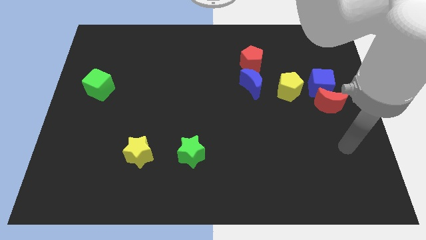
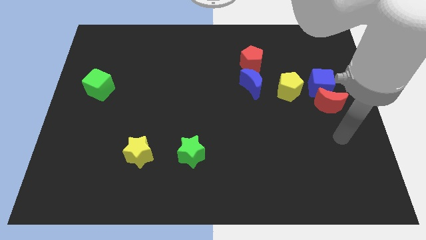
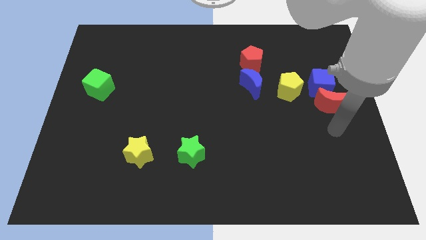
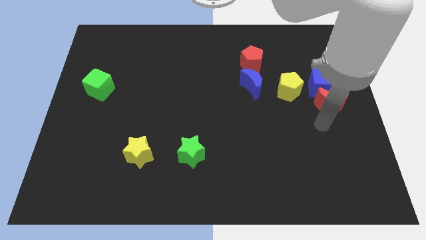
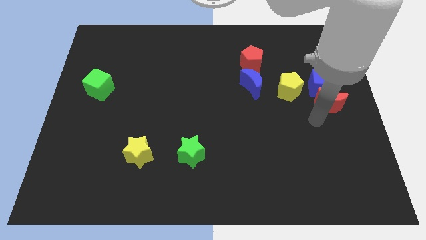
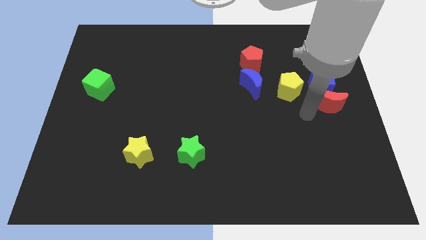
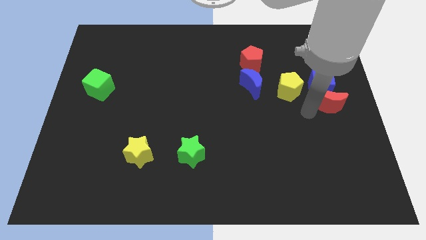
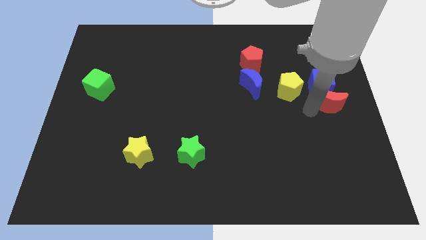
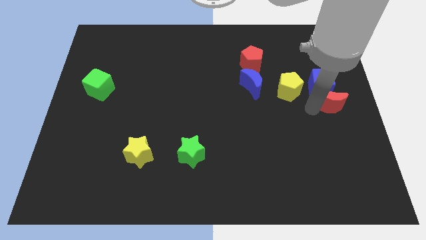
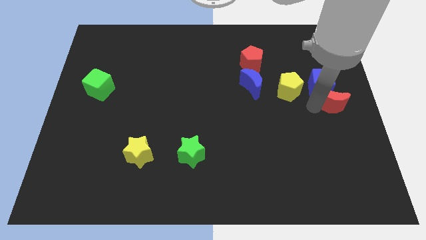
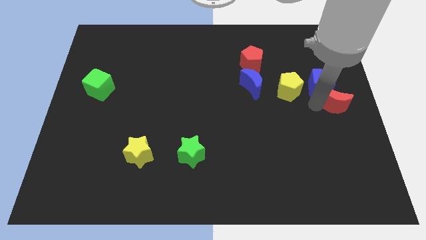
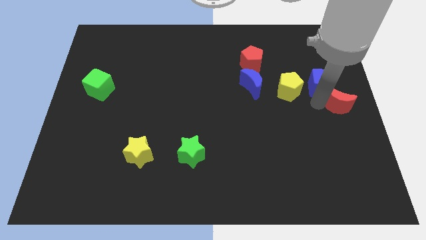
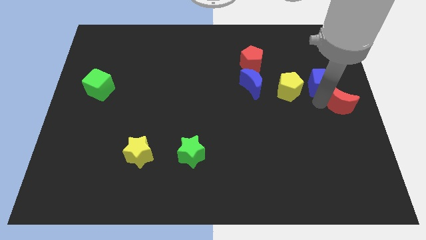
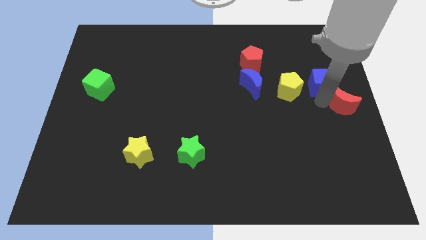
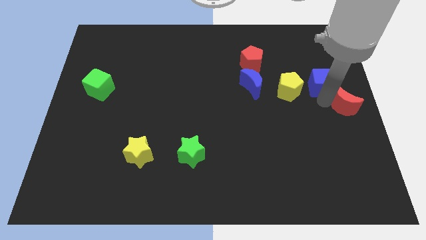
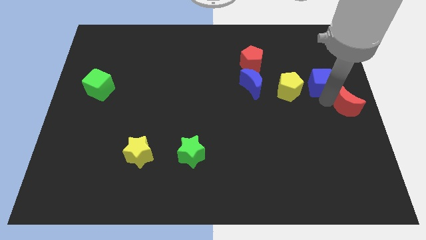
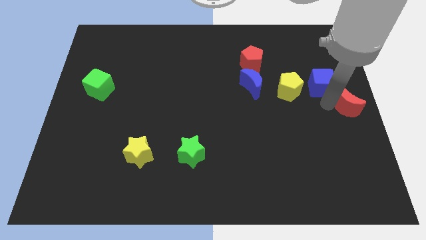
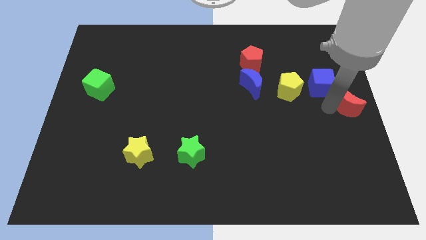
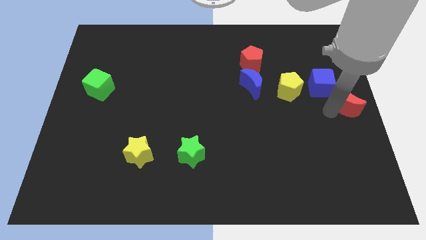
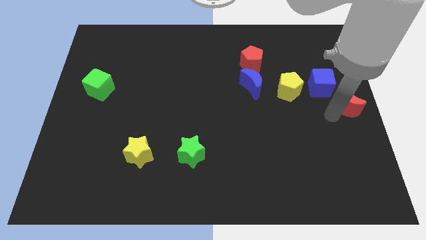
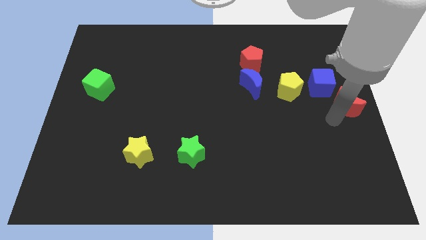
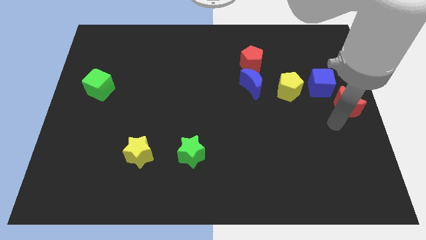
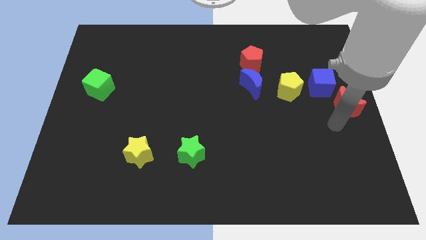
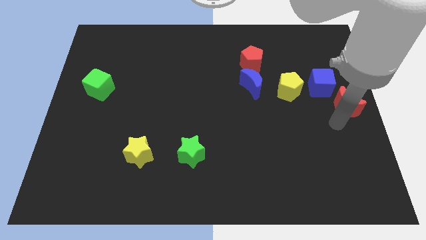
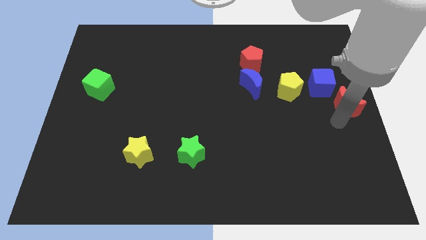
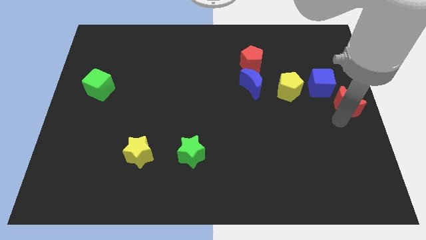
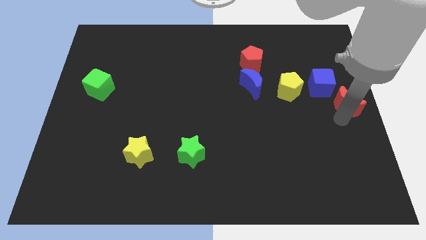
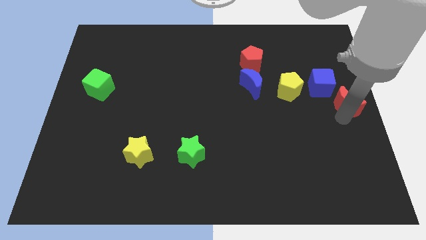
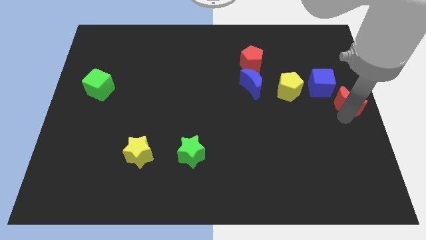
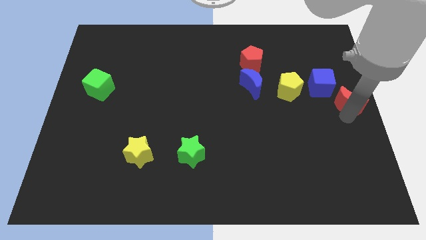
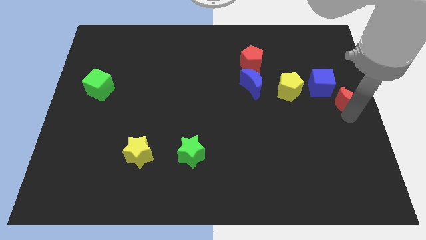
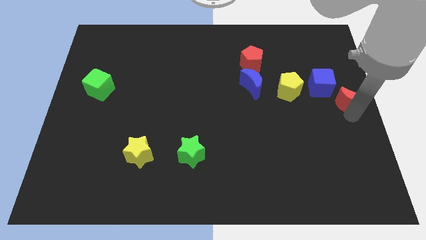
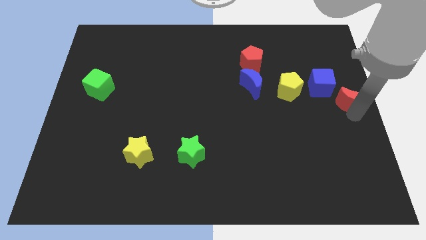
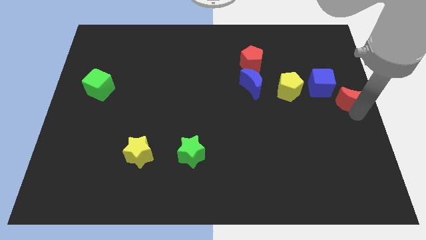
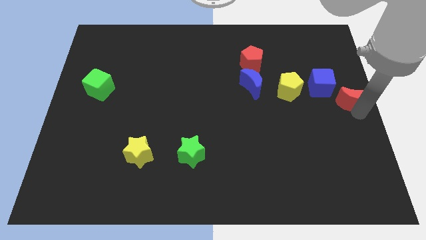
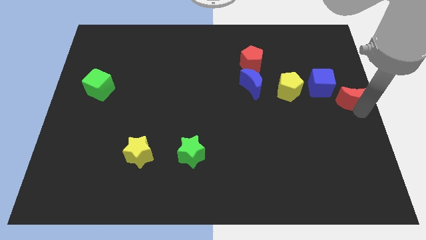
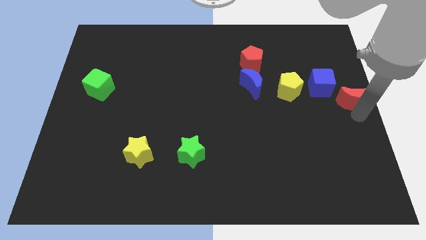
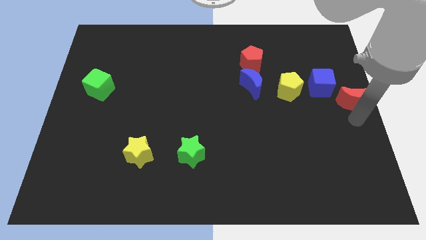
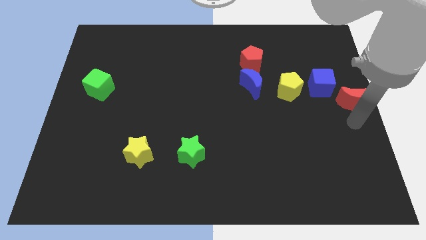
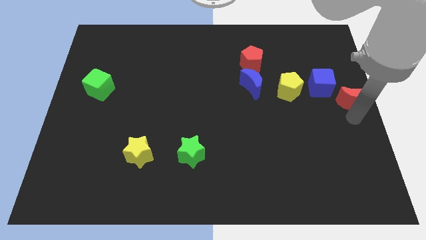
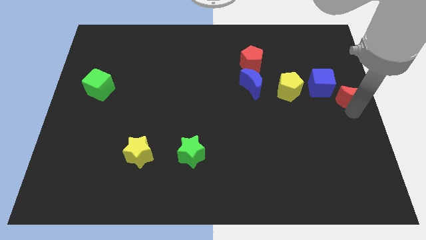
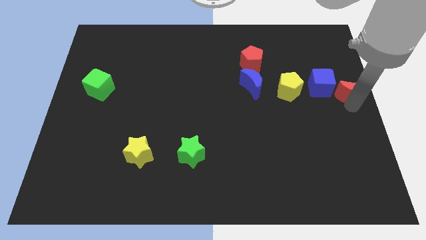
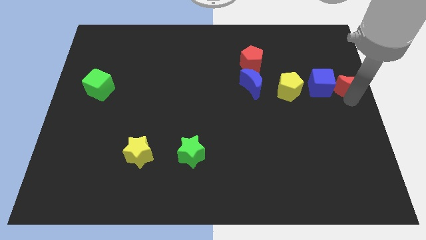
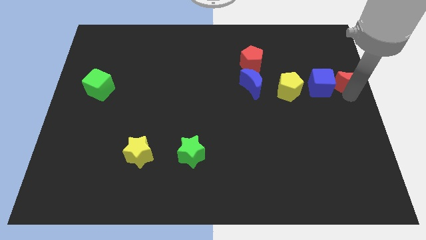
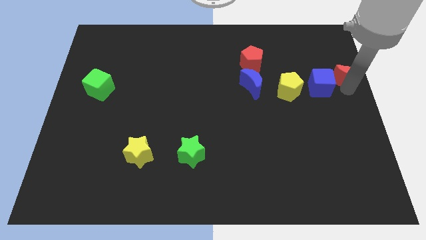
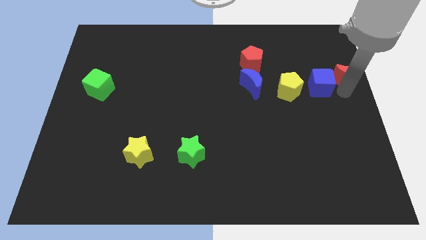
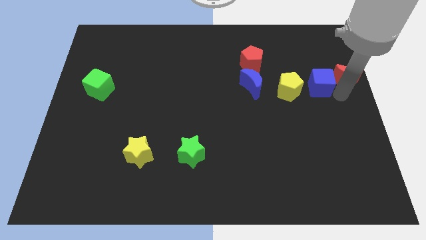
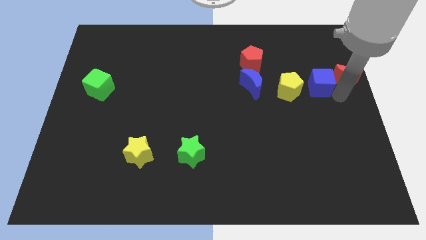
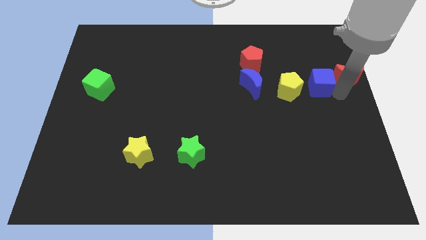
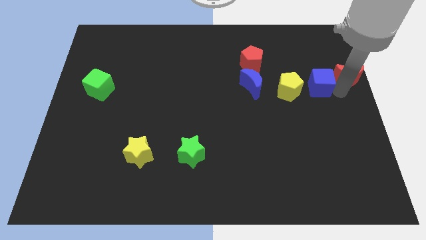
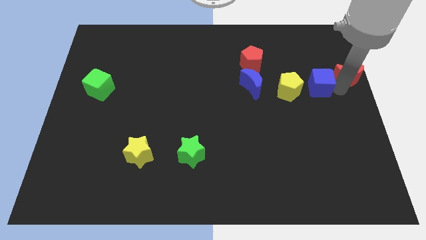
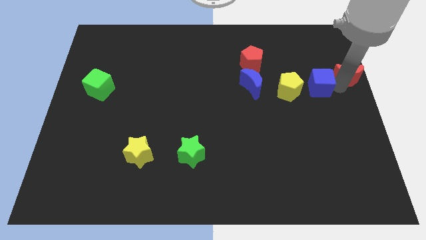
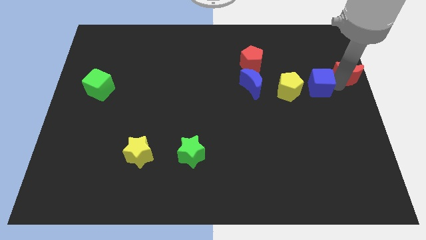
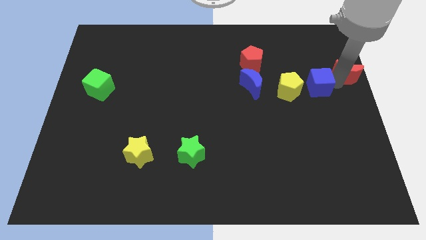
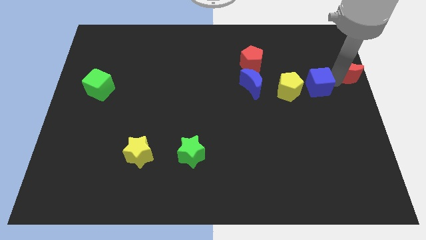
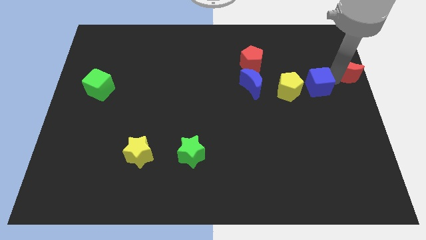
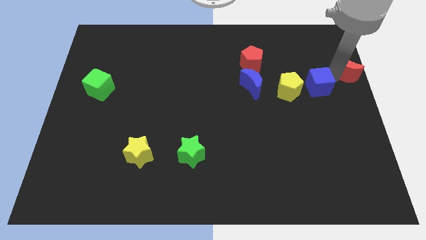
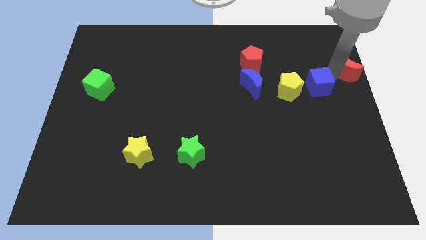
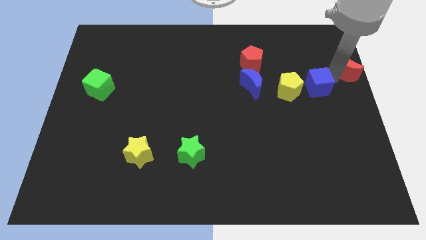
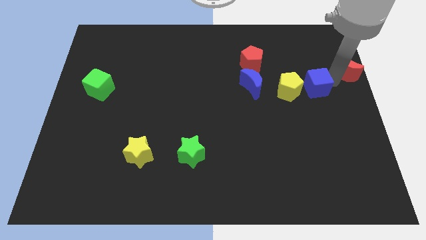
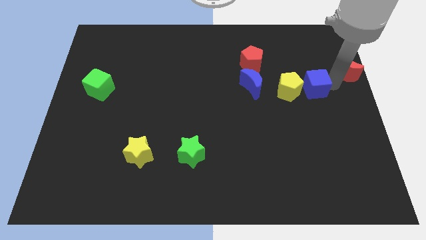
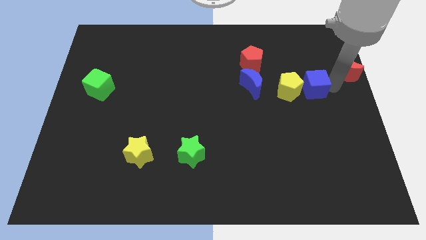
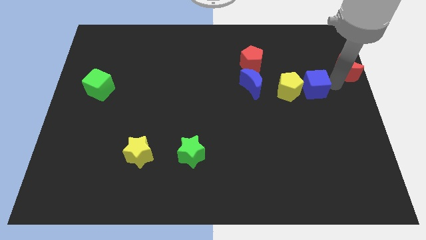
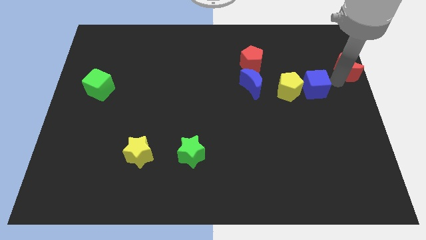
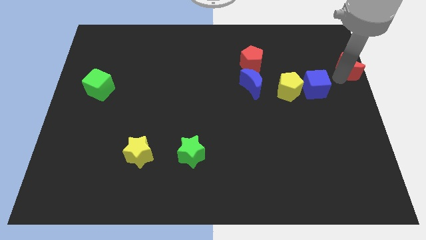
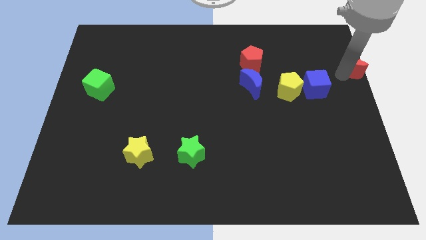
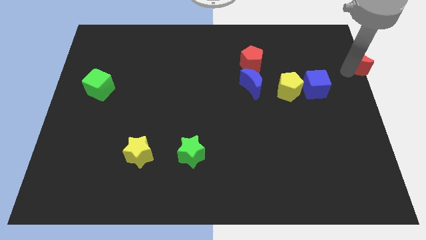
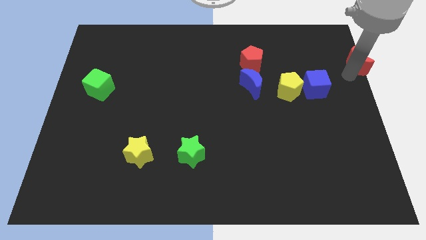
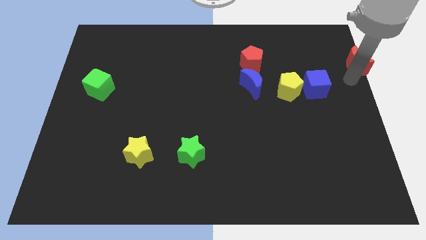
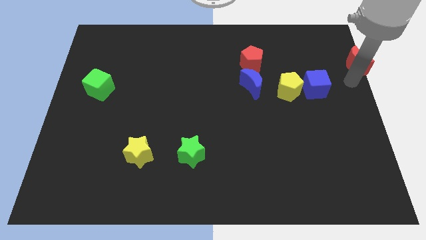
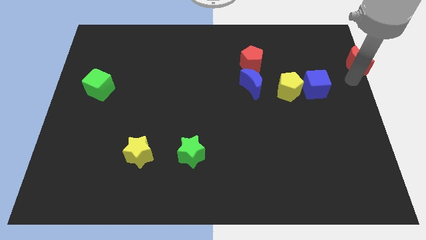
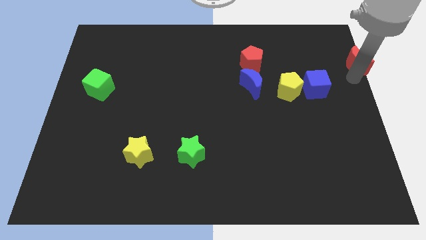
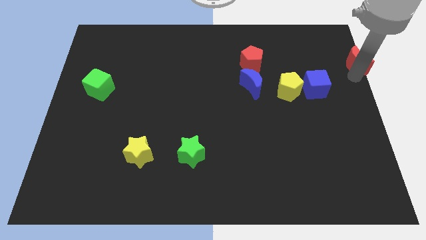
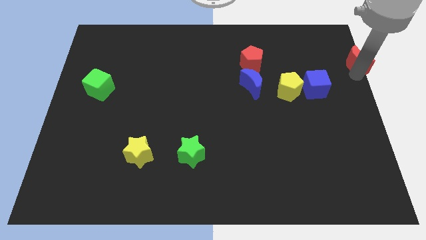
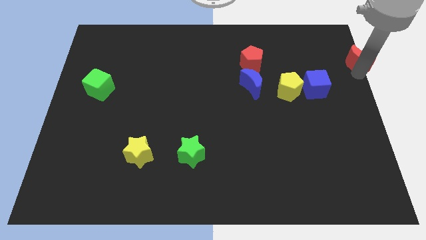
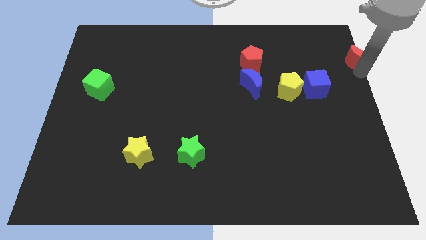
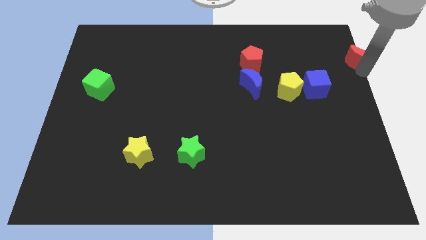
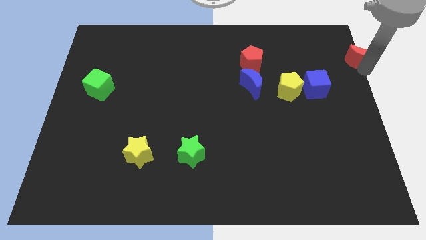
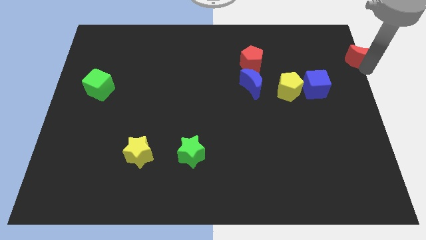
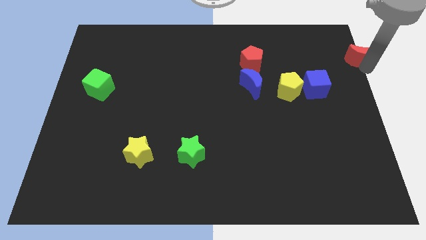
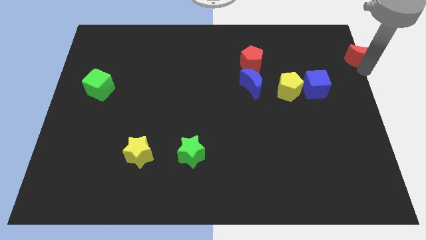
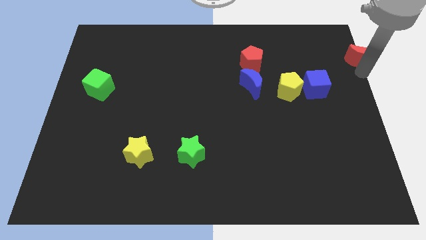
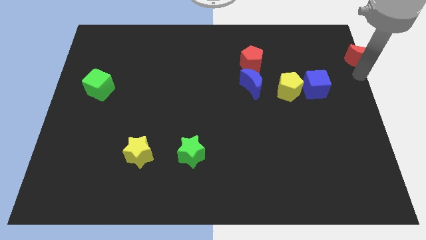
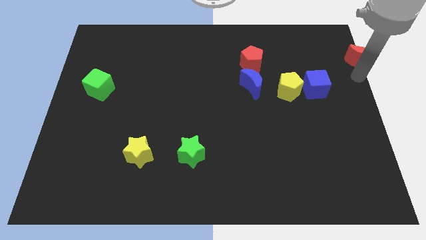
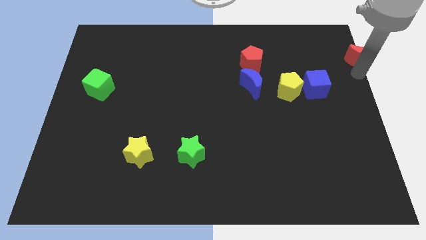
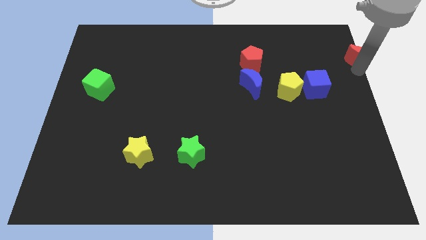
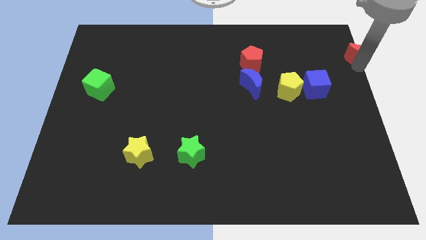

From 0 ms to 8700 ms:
slide the red moon to the top right corner
